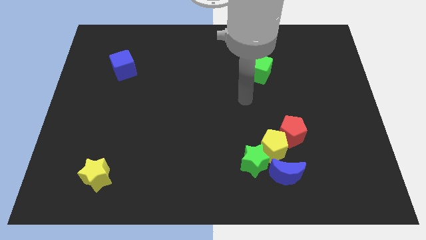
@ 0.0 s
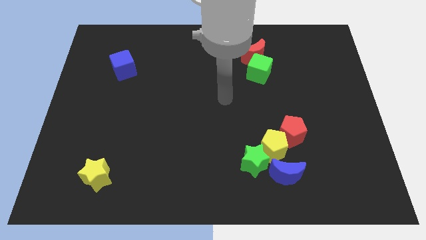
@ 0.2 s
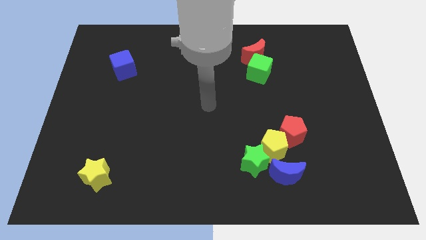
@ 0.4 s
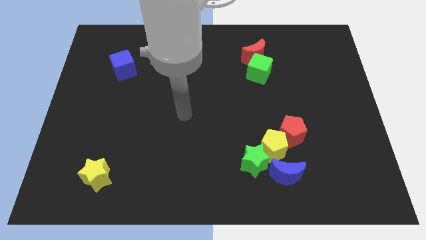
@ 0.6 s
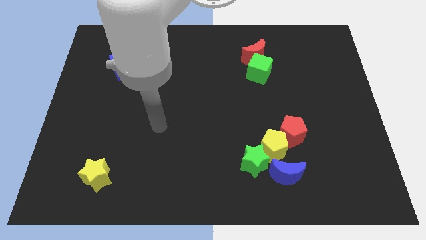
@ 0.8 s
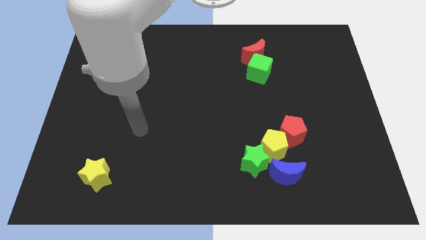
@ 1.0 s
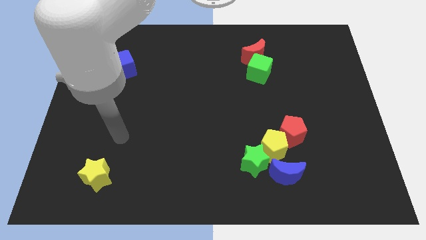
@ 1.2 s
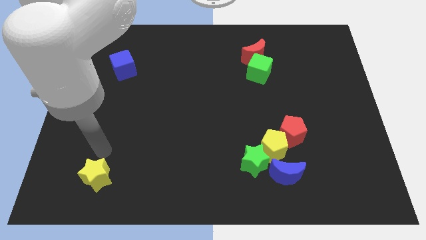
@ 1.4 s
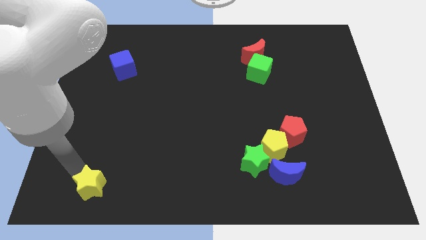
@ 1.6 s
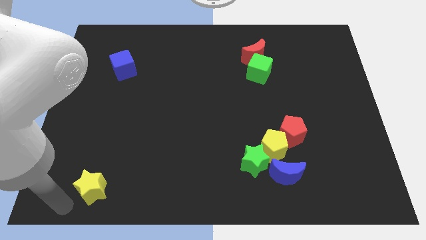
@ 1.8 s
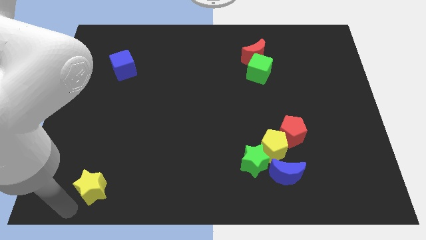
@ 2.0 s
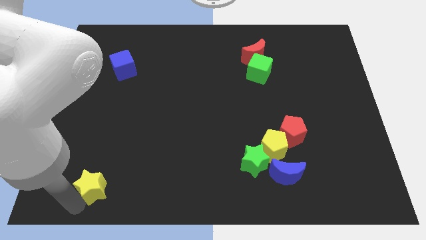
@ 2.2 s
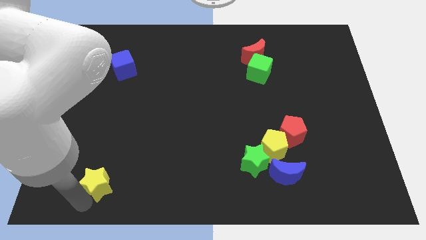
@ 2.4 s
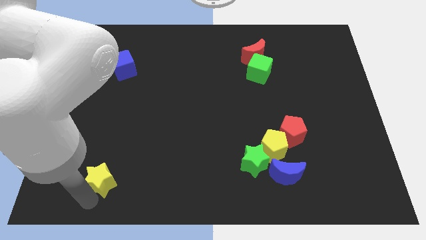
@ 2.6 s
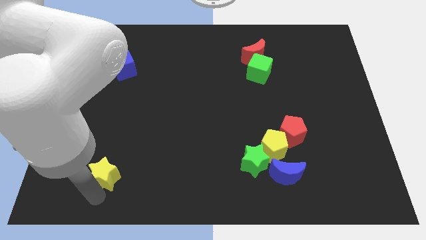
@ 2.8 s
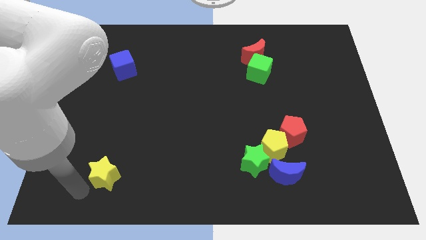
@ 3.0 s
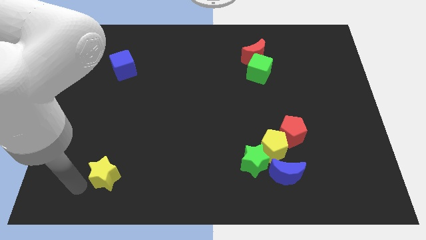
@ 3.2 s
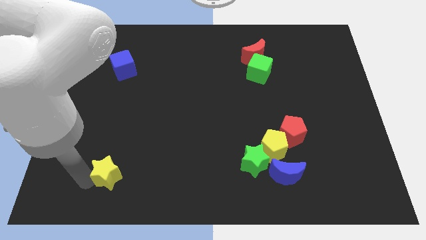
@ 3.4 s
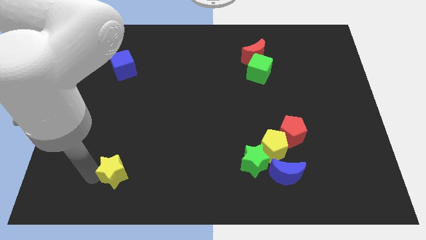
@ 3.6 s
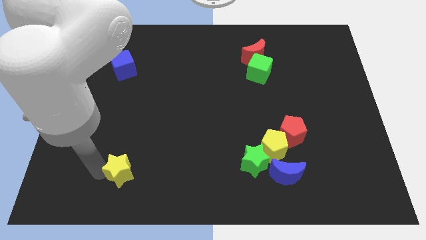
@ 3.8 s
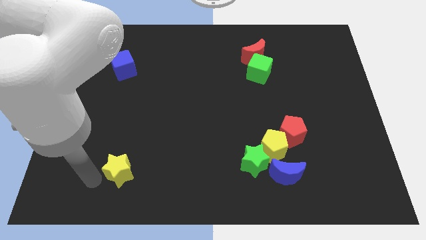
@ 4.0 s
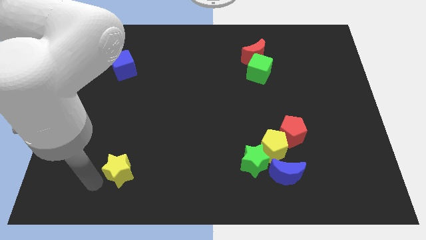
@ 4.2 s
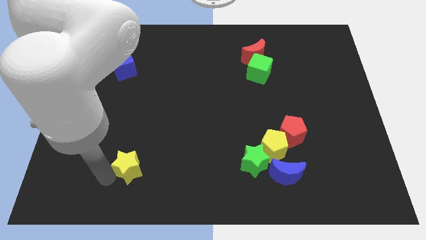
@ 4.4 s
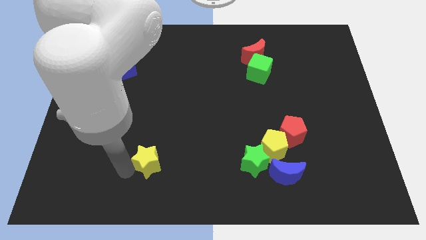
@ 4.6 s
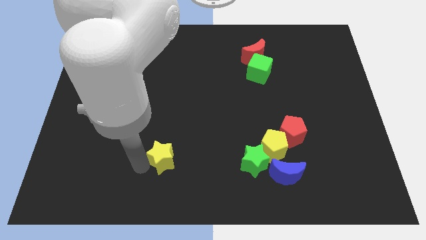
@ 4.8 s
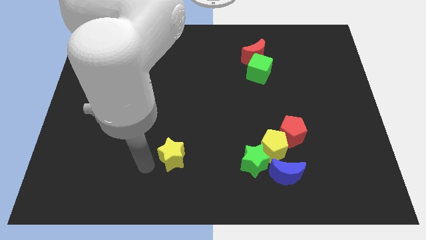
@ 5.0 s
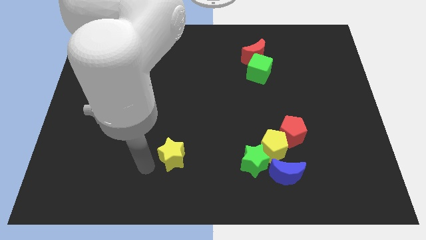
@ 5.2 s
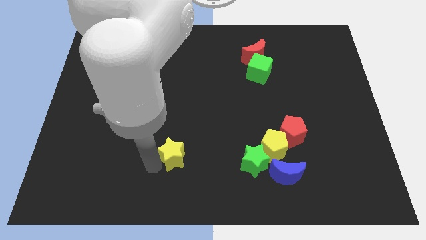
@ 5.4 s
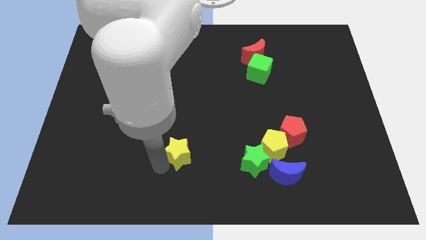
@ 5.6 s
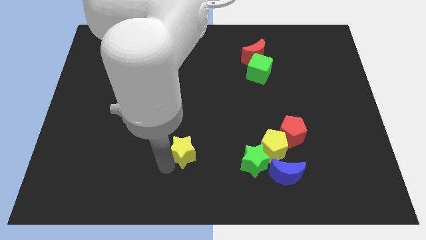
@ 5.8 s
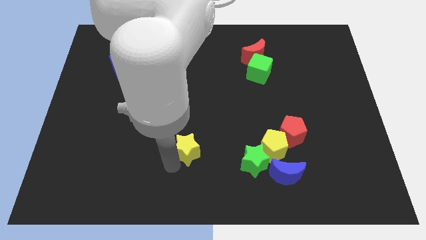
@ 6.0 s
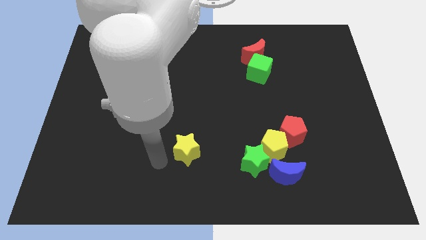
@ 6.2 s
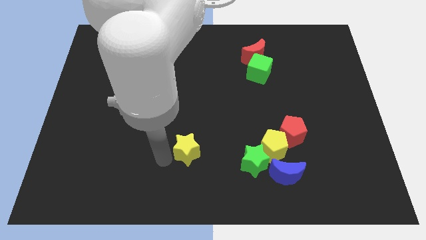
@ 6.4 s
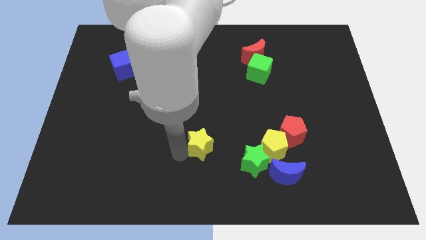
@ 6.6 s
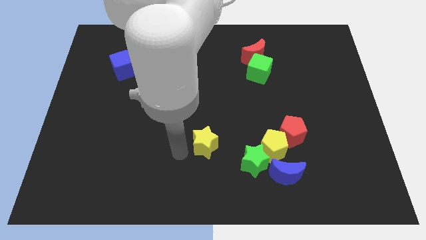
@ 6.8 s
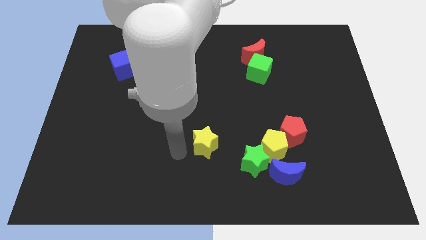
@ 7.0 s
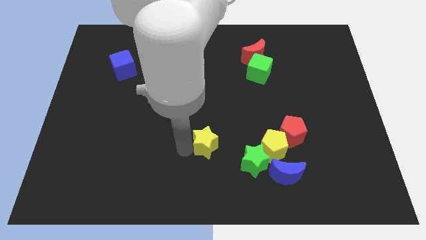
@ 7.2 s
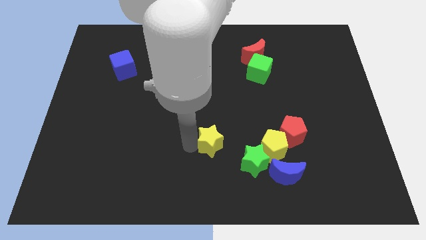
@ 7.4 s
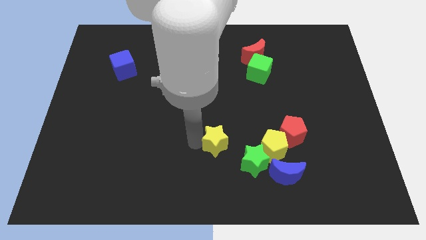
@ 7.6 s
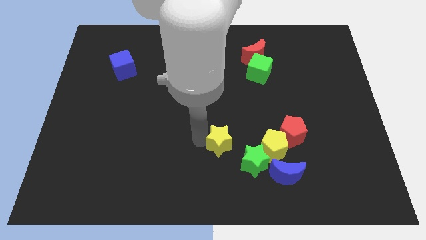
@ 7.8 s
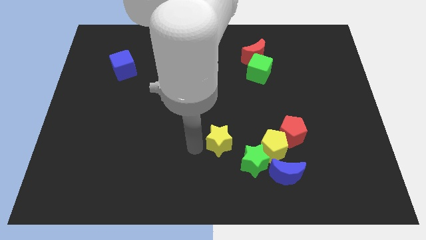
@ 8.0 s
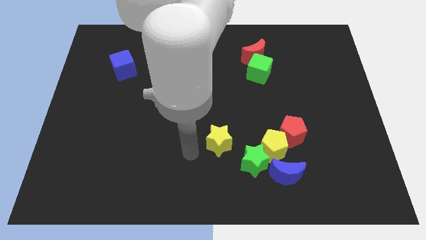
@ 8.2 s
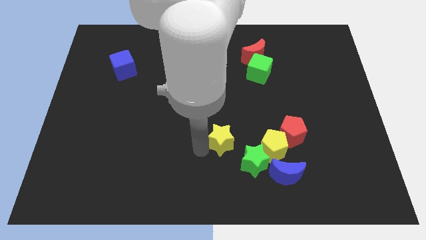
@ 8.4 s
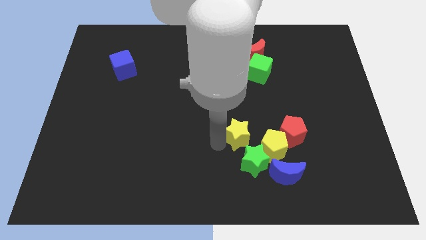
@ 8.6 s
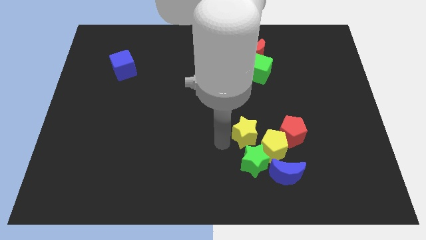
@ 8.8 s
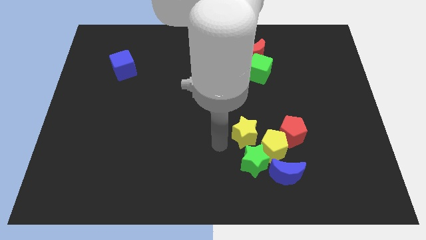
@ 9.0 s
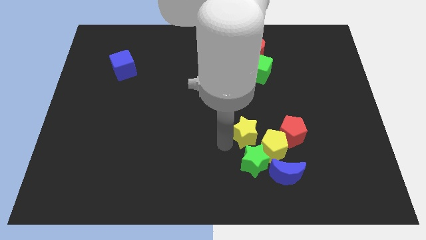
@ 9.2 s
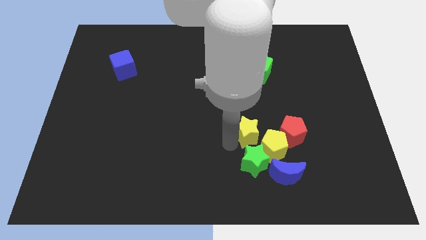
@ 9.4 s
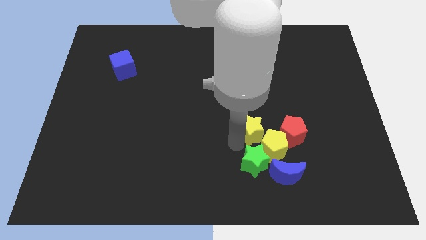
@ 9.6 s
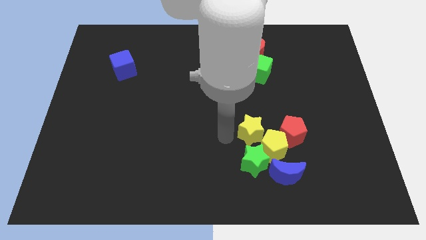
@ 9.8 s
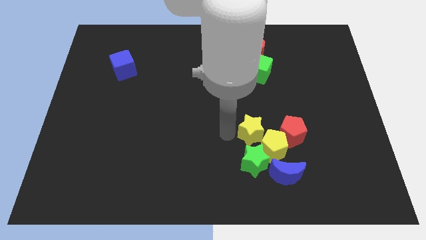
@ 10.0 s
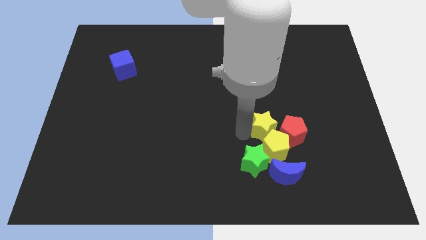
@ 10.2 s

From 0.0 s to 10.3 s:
push the yellow star above the blue moon

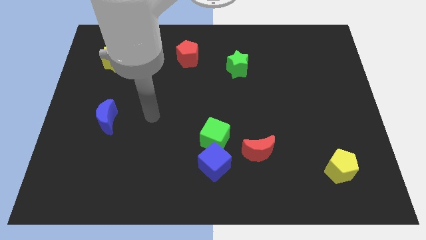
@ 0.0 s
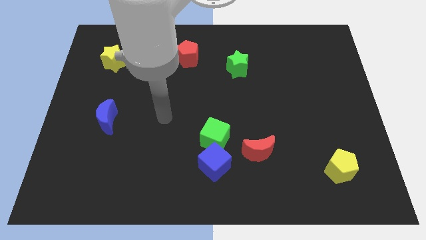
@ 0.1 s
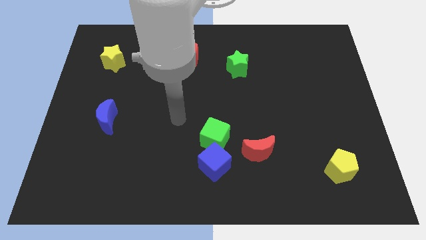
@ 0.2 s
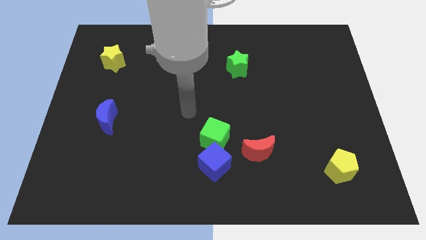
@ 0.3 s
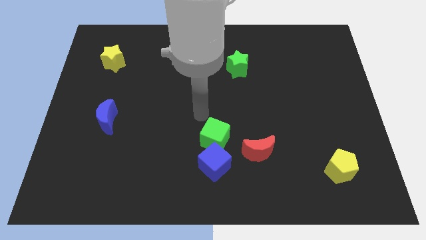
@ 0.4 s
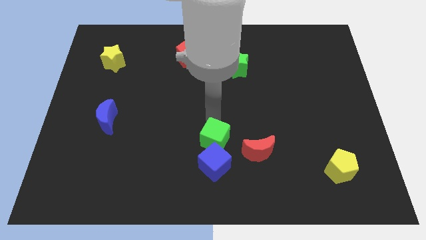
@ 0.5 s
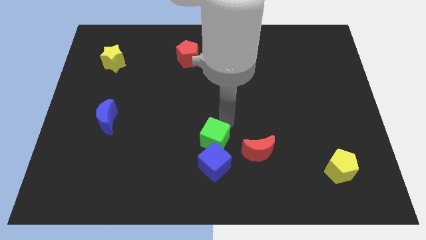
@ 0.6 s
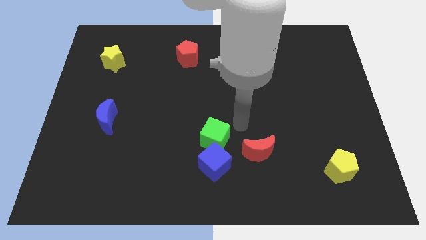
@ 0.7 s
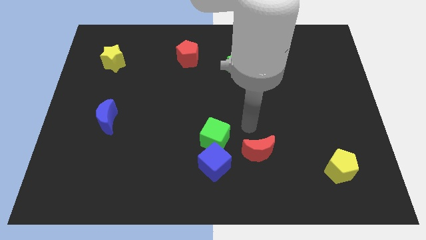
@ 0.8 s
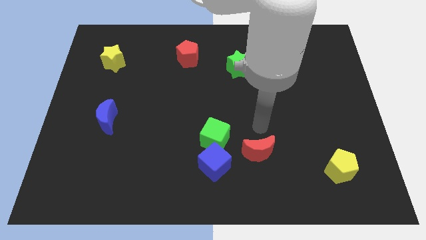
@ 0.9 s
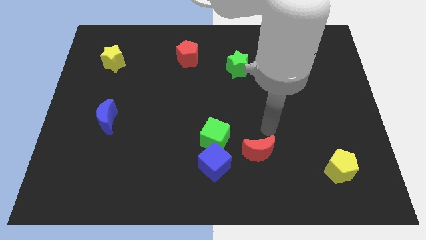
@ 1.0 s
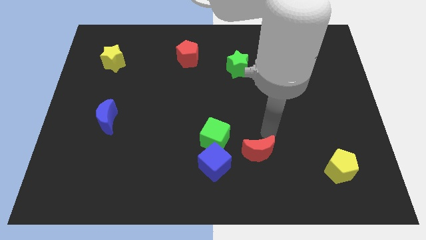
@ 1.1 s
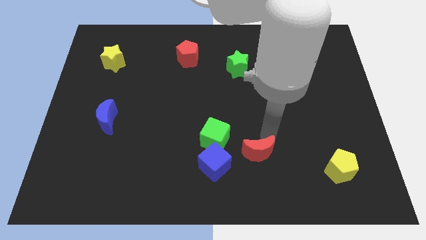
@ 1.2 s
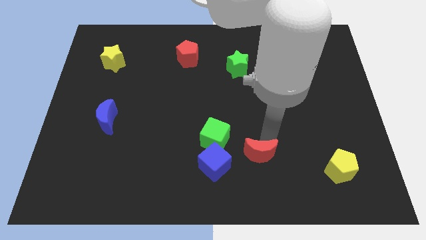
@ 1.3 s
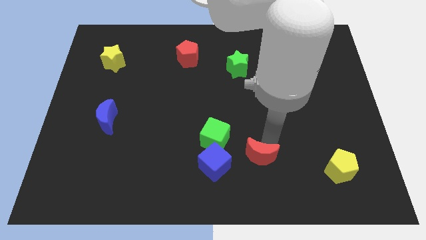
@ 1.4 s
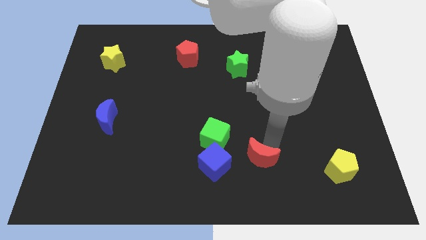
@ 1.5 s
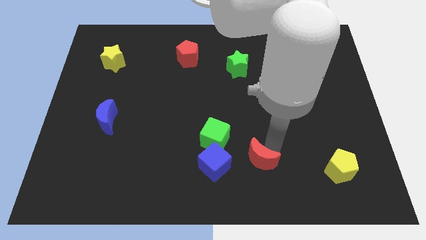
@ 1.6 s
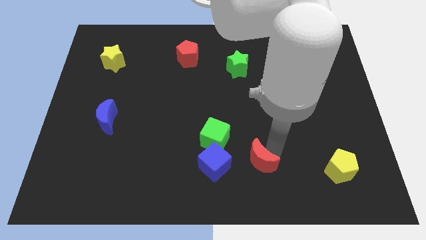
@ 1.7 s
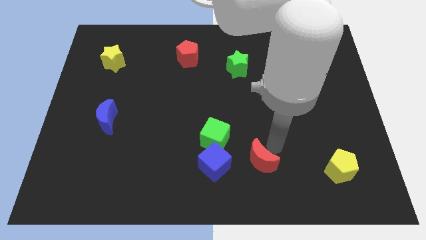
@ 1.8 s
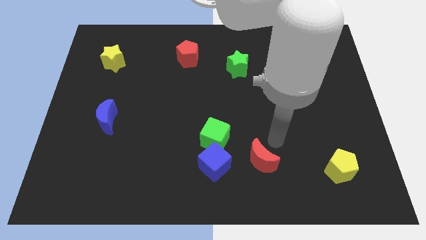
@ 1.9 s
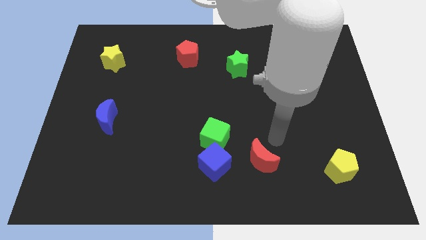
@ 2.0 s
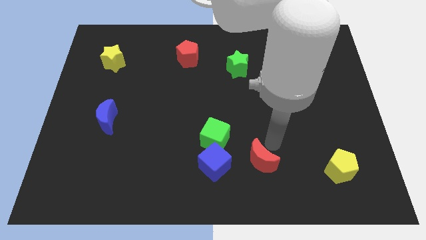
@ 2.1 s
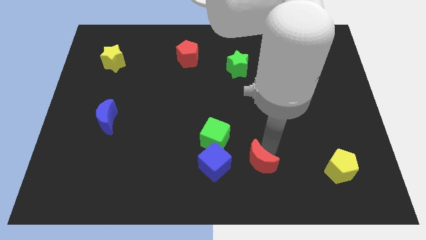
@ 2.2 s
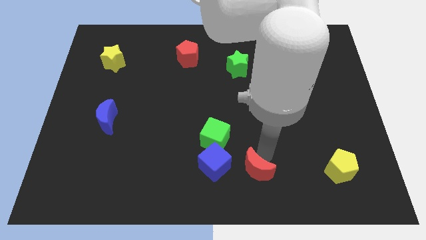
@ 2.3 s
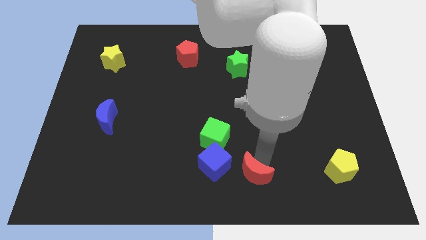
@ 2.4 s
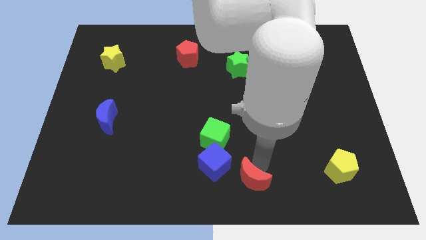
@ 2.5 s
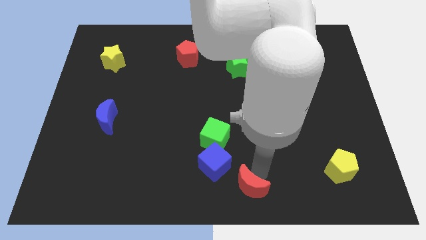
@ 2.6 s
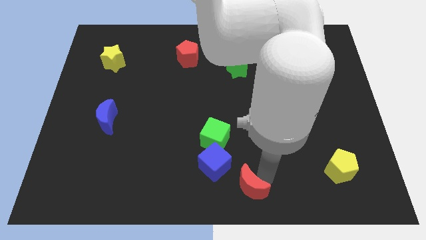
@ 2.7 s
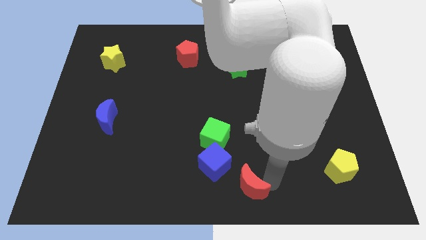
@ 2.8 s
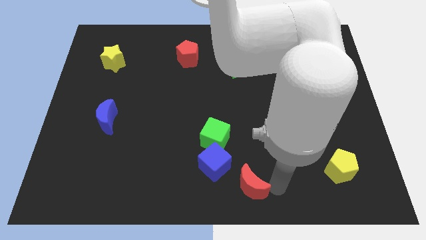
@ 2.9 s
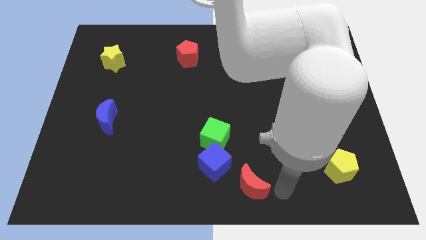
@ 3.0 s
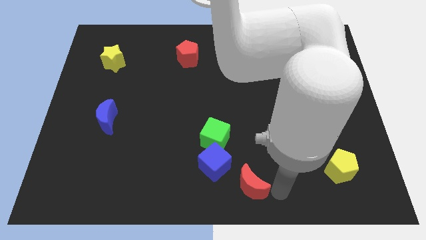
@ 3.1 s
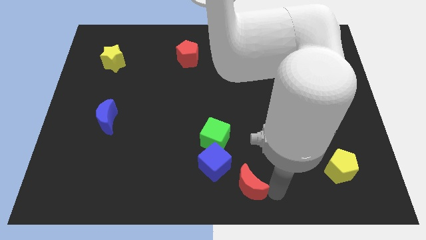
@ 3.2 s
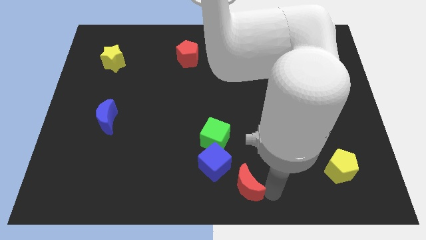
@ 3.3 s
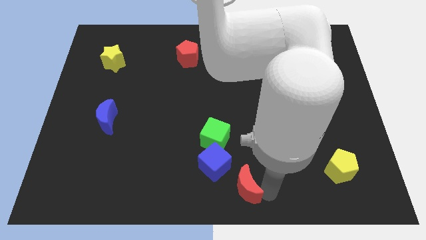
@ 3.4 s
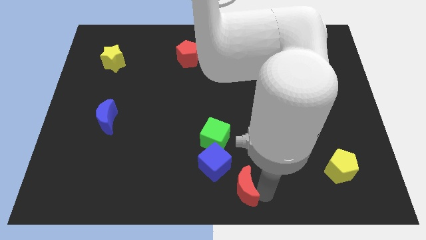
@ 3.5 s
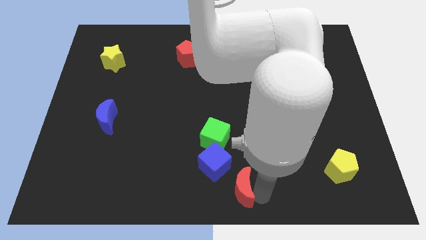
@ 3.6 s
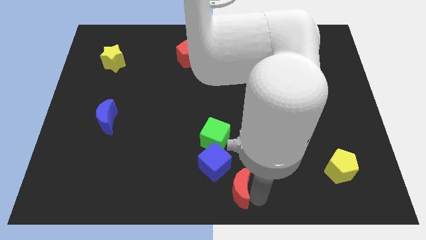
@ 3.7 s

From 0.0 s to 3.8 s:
slide the red moon to the bottom side of the green cube
